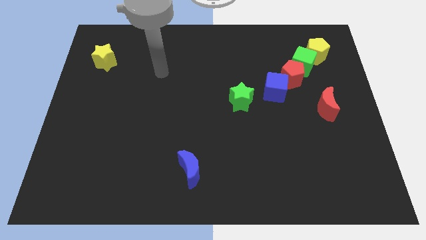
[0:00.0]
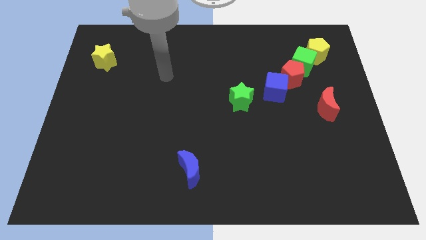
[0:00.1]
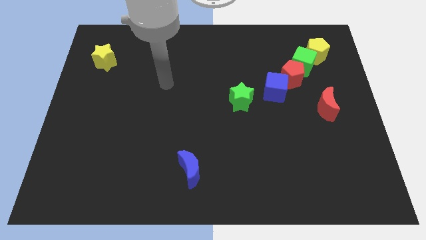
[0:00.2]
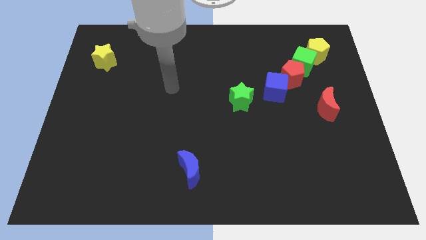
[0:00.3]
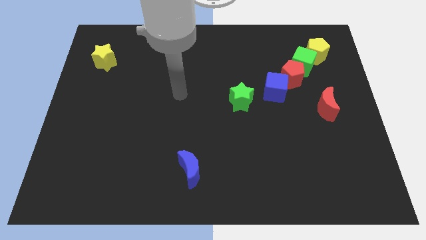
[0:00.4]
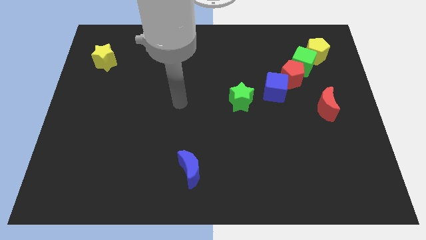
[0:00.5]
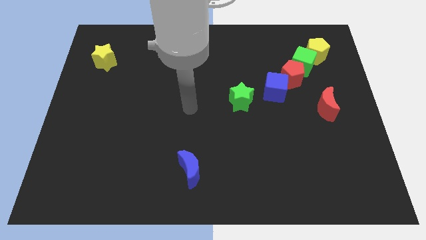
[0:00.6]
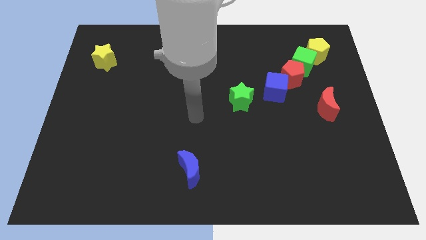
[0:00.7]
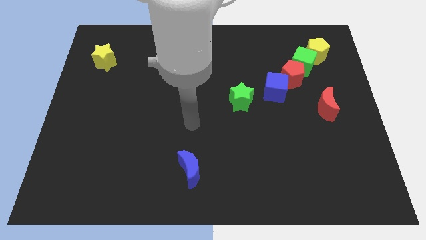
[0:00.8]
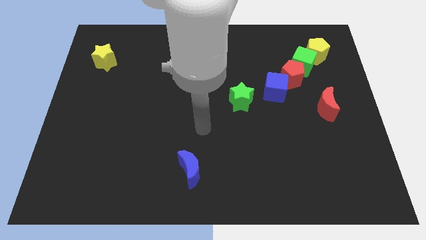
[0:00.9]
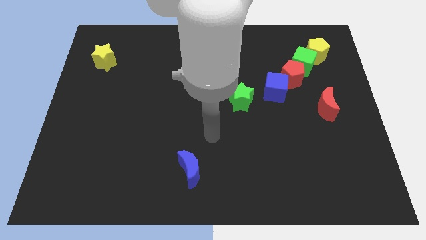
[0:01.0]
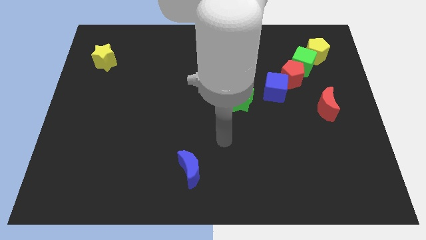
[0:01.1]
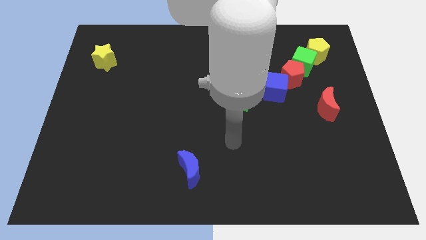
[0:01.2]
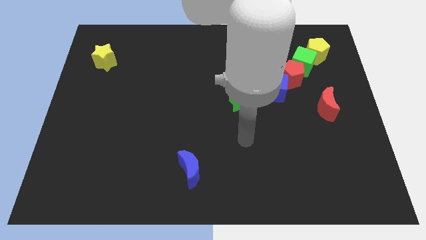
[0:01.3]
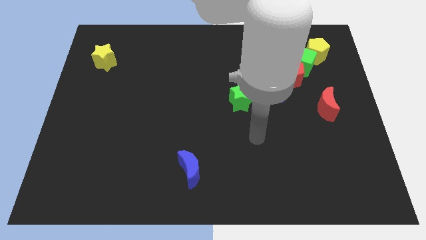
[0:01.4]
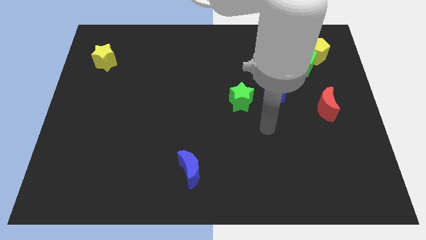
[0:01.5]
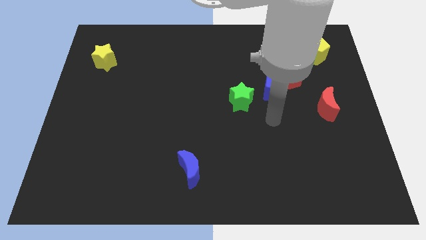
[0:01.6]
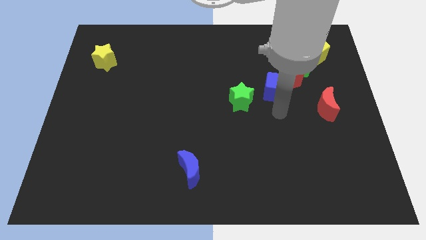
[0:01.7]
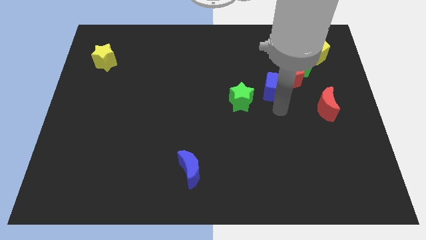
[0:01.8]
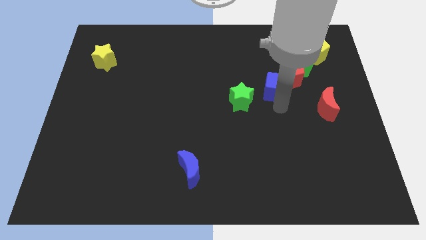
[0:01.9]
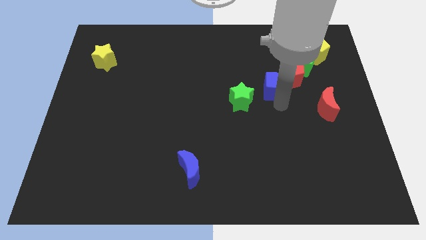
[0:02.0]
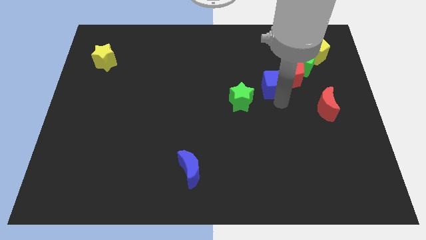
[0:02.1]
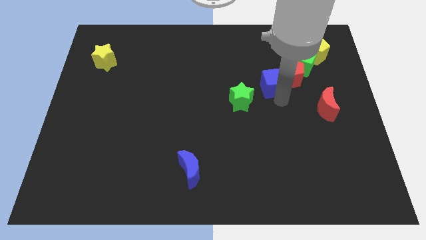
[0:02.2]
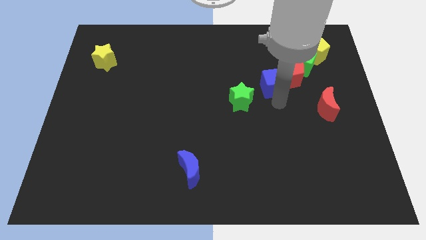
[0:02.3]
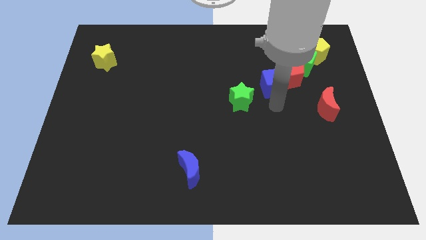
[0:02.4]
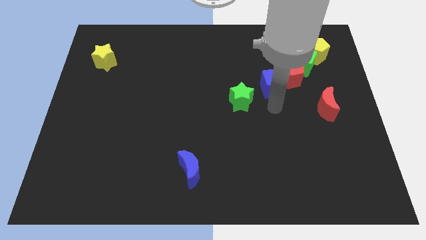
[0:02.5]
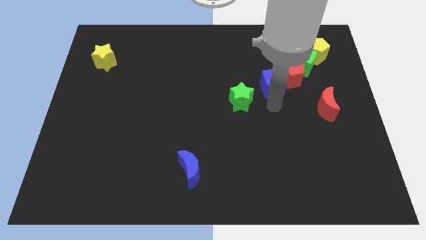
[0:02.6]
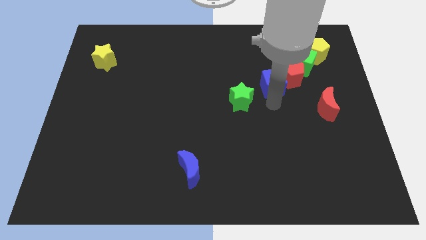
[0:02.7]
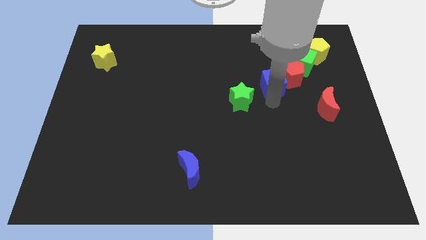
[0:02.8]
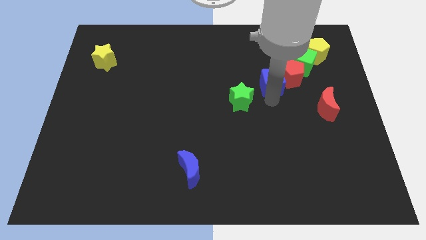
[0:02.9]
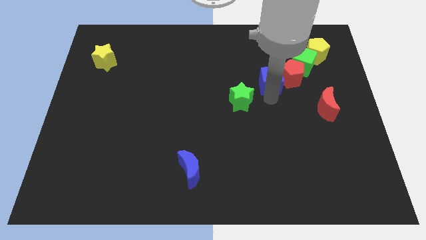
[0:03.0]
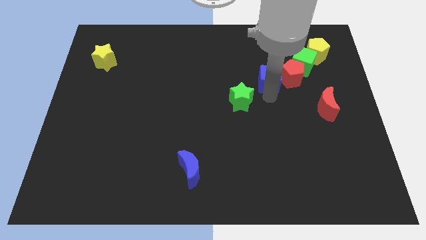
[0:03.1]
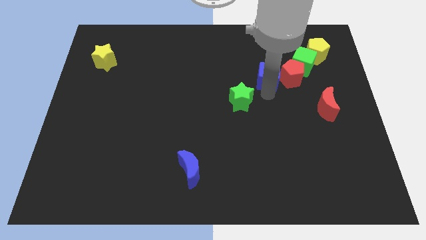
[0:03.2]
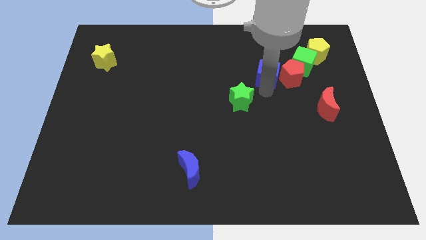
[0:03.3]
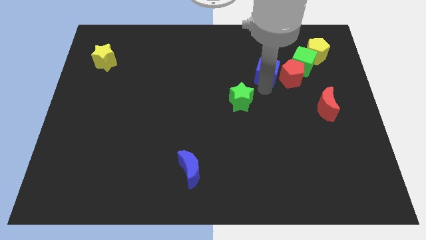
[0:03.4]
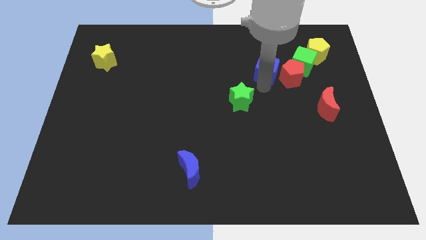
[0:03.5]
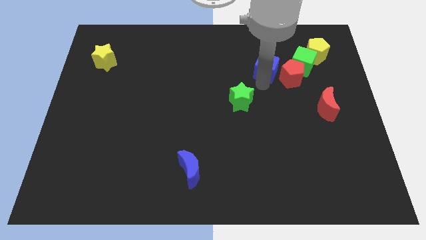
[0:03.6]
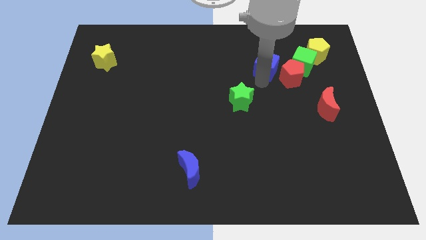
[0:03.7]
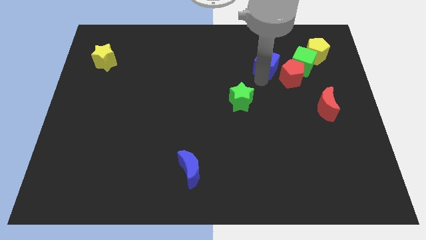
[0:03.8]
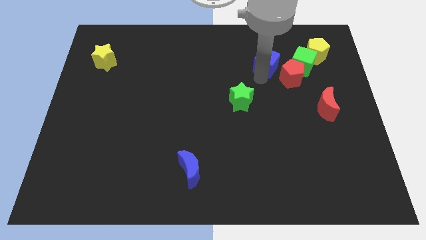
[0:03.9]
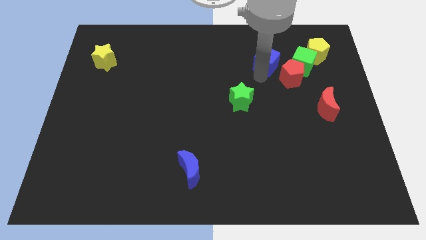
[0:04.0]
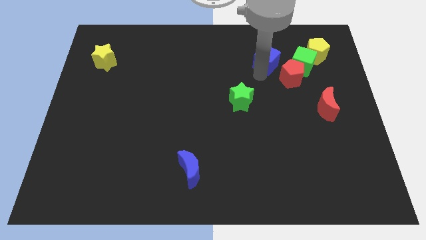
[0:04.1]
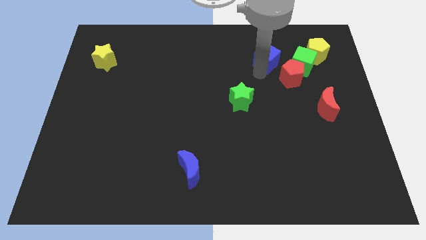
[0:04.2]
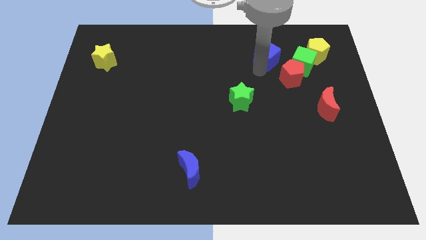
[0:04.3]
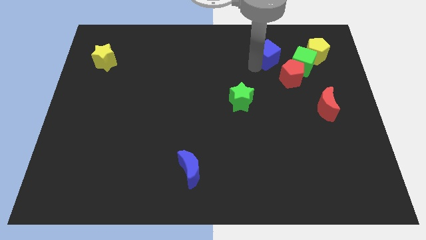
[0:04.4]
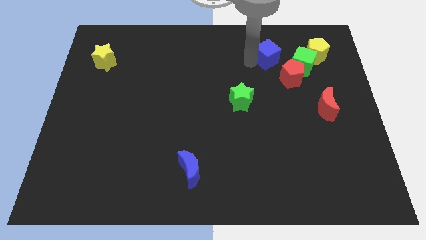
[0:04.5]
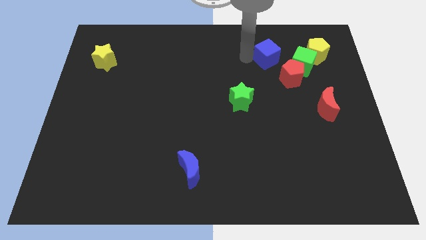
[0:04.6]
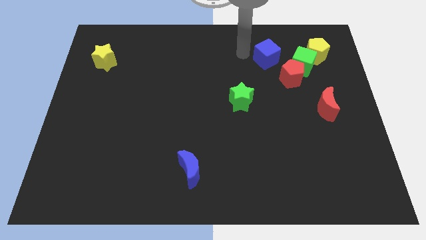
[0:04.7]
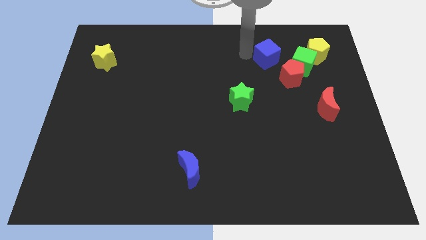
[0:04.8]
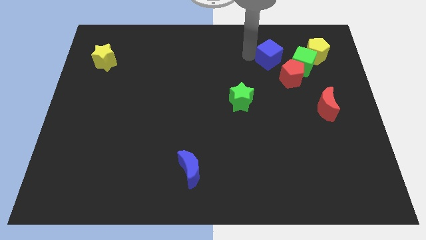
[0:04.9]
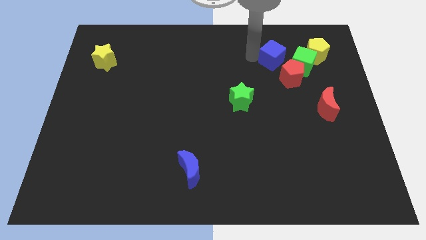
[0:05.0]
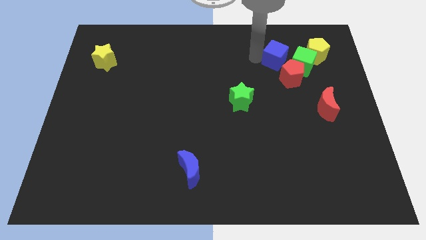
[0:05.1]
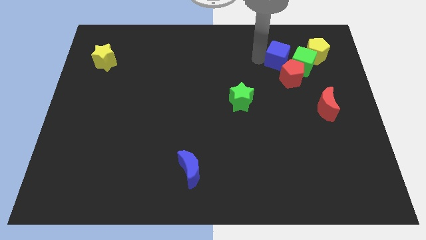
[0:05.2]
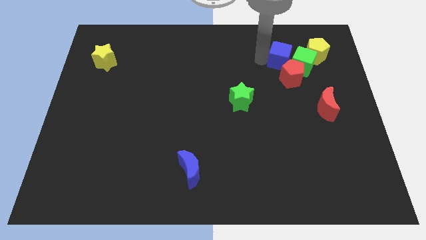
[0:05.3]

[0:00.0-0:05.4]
put the blue cube next to the green cube

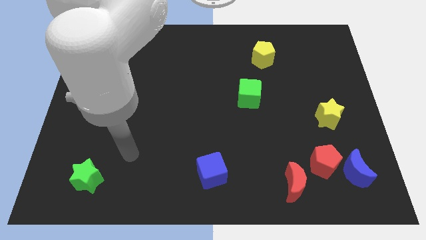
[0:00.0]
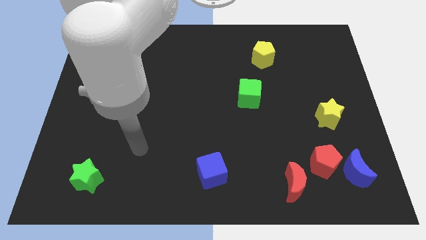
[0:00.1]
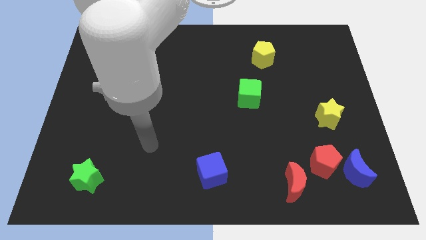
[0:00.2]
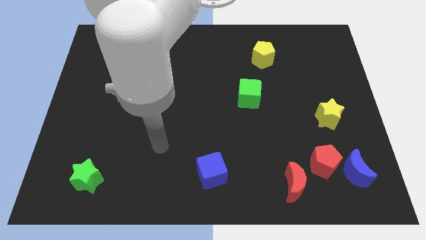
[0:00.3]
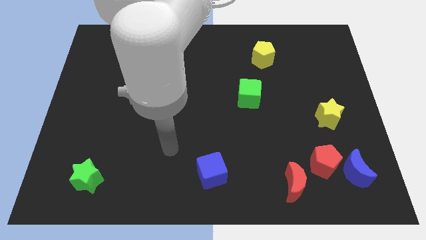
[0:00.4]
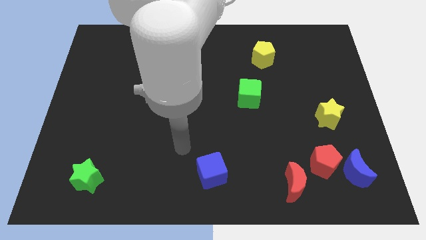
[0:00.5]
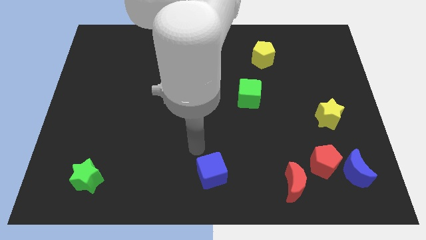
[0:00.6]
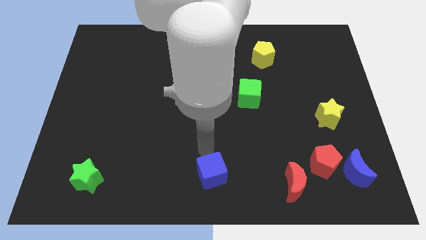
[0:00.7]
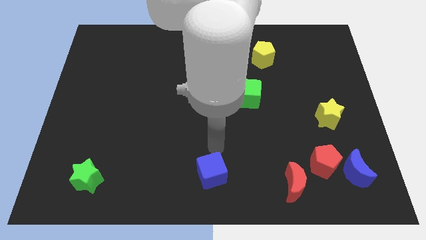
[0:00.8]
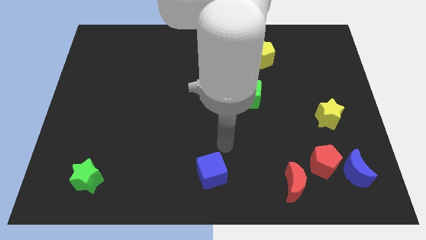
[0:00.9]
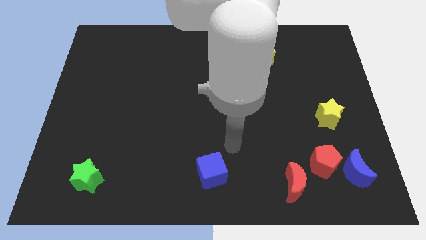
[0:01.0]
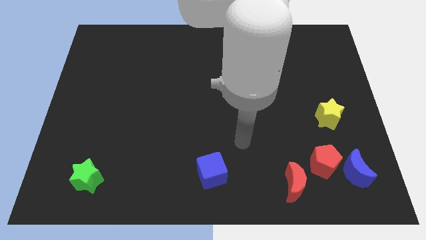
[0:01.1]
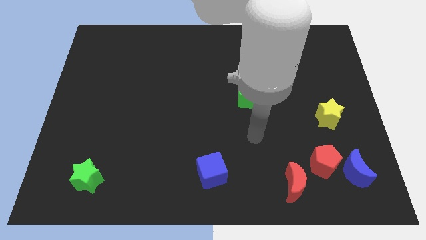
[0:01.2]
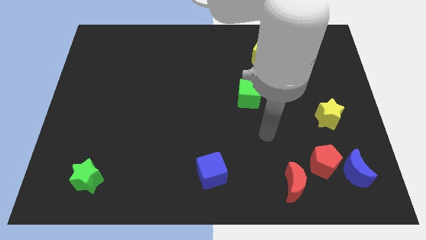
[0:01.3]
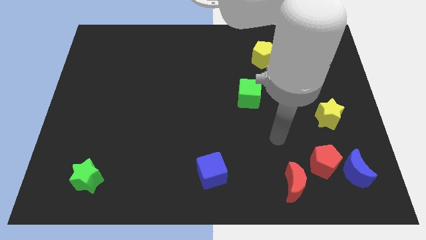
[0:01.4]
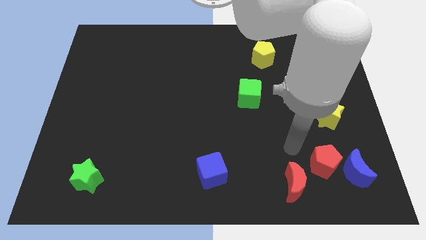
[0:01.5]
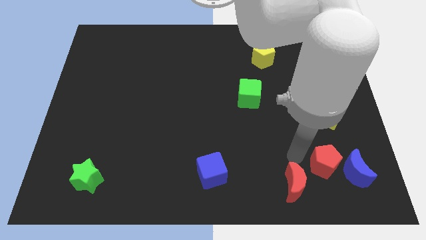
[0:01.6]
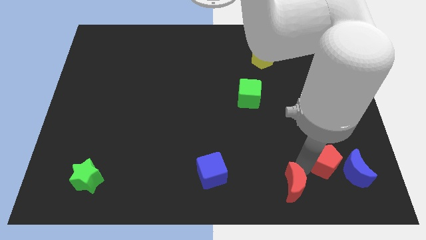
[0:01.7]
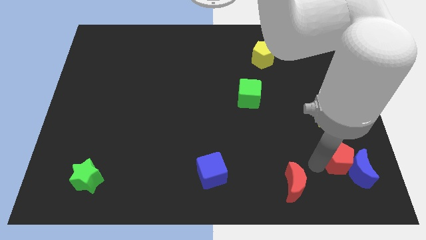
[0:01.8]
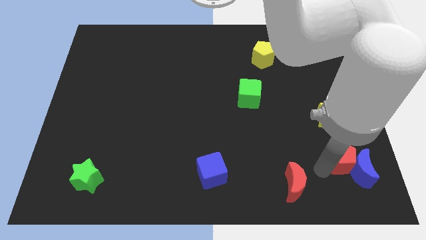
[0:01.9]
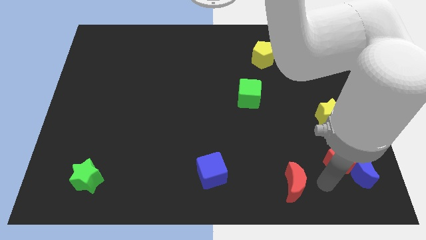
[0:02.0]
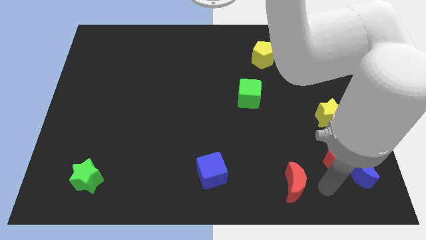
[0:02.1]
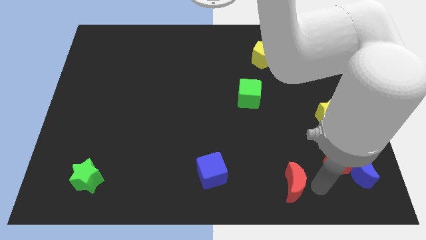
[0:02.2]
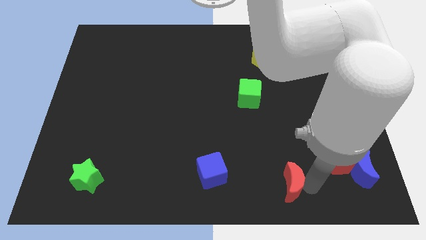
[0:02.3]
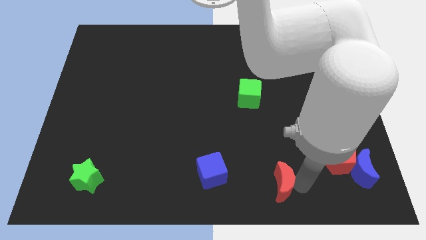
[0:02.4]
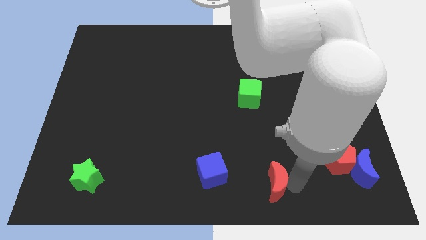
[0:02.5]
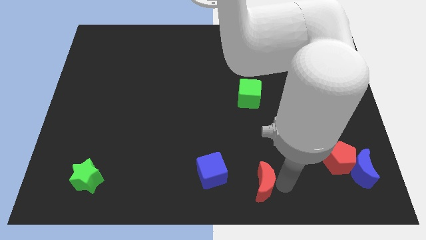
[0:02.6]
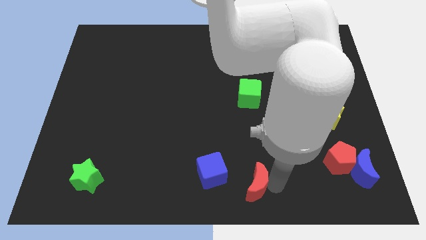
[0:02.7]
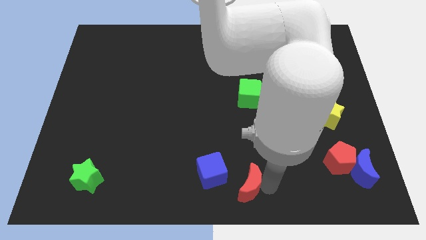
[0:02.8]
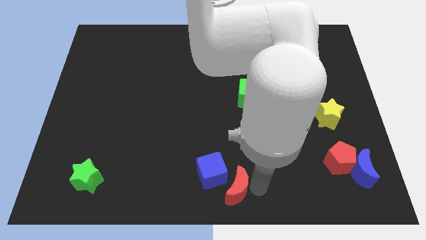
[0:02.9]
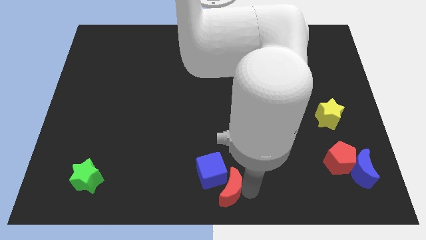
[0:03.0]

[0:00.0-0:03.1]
put the red moon towards the blue cube
